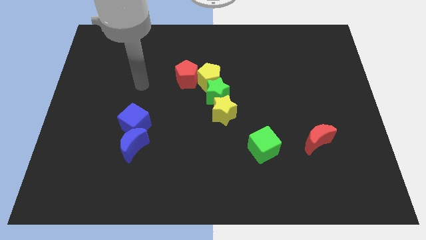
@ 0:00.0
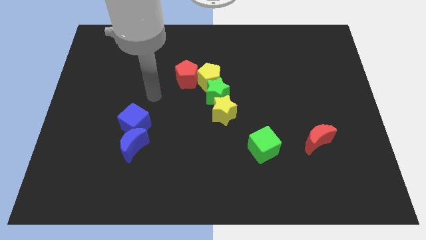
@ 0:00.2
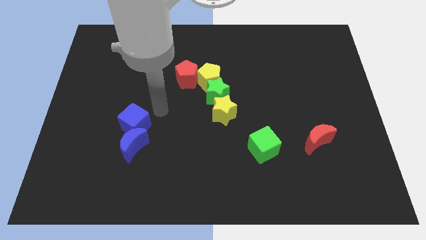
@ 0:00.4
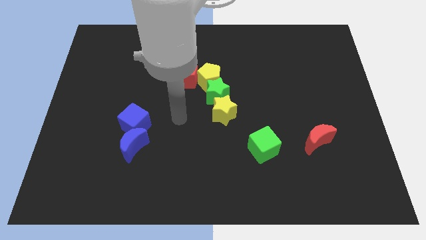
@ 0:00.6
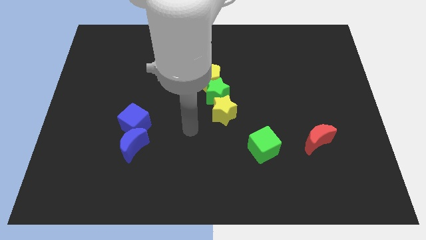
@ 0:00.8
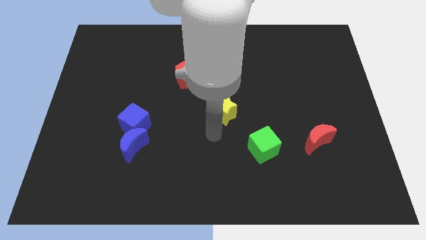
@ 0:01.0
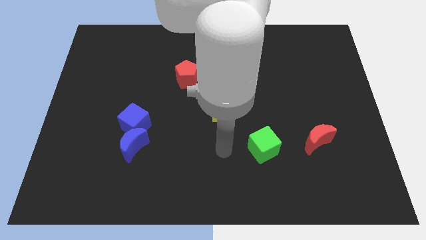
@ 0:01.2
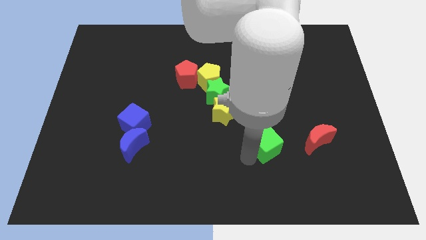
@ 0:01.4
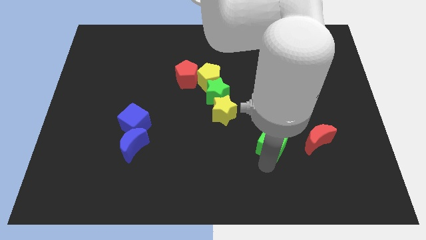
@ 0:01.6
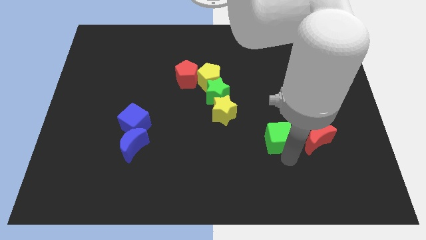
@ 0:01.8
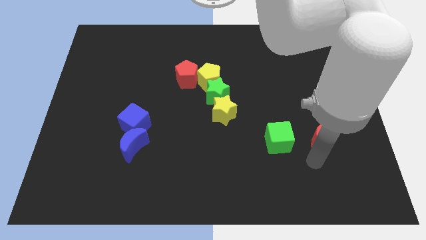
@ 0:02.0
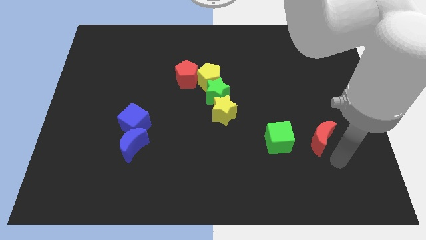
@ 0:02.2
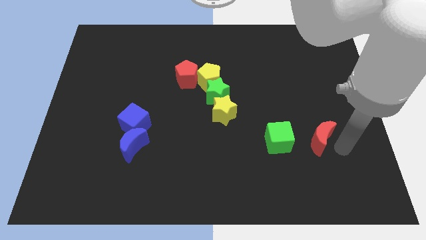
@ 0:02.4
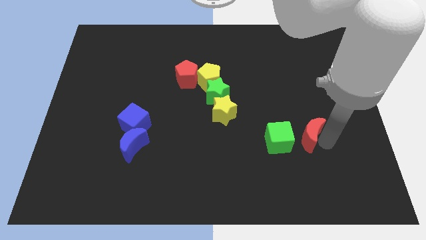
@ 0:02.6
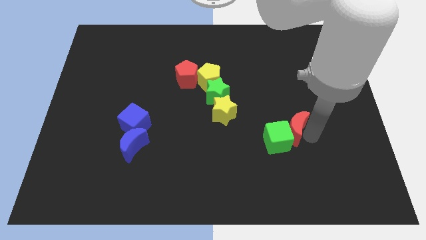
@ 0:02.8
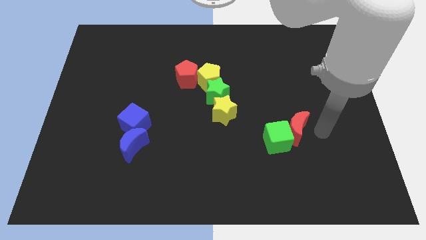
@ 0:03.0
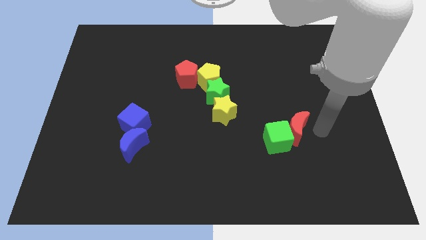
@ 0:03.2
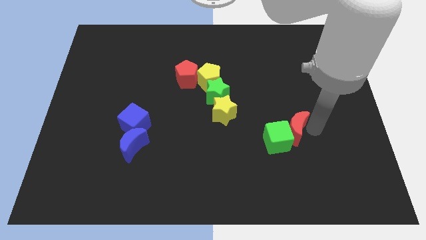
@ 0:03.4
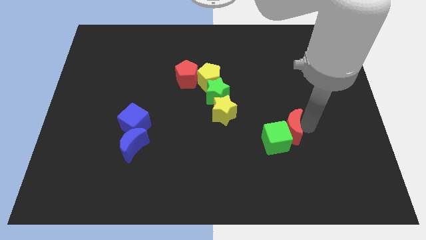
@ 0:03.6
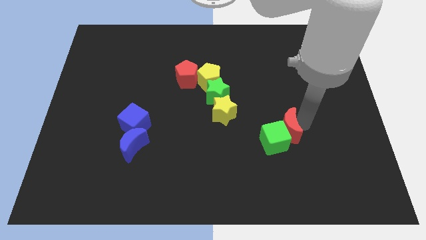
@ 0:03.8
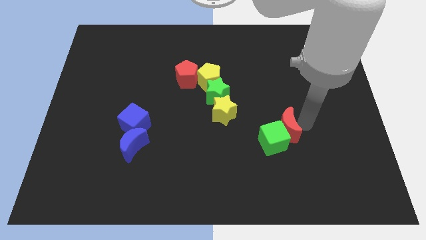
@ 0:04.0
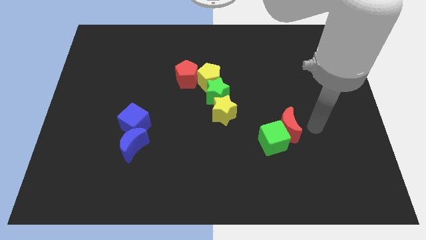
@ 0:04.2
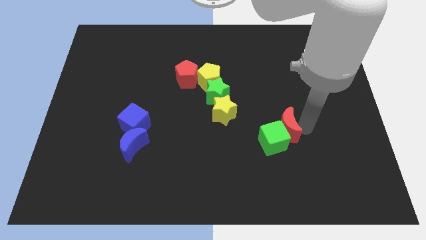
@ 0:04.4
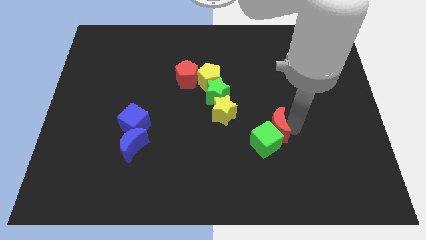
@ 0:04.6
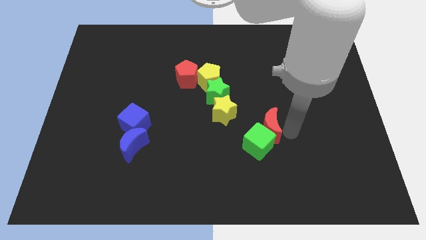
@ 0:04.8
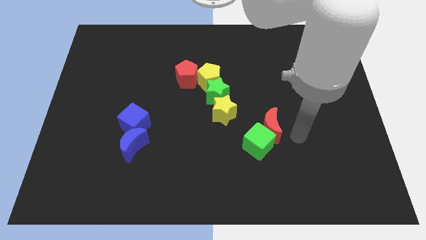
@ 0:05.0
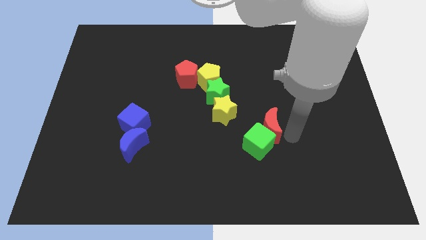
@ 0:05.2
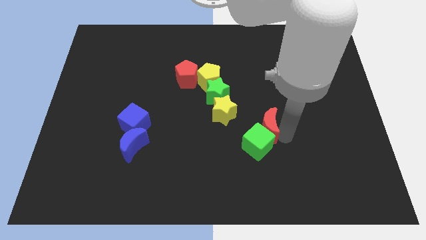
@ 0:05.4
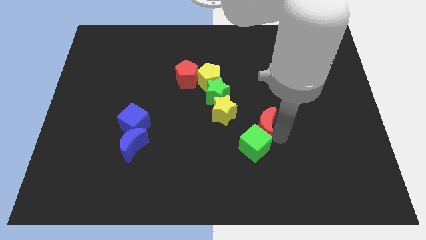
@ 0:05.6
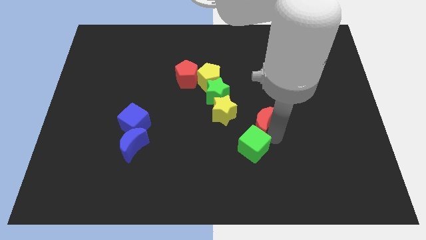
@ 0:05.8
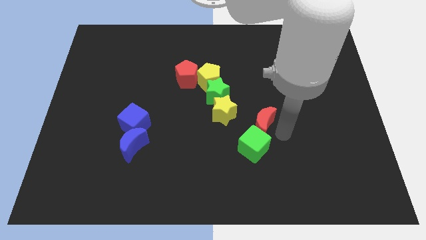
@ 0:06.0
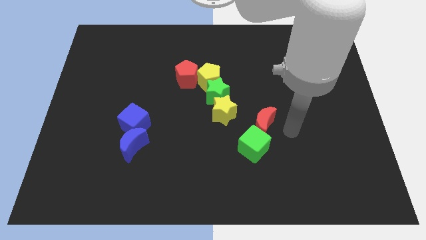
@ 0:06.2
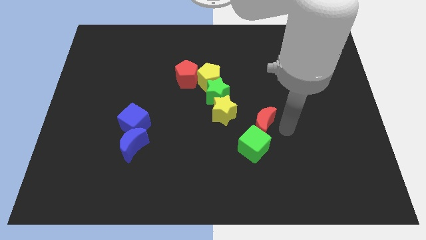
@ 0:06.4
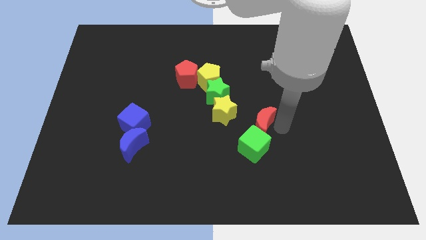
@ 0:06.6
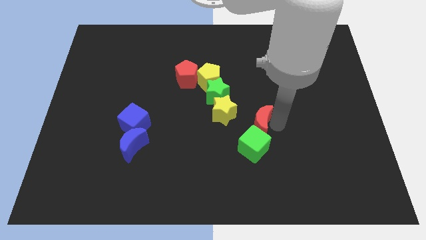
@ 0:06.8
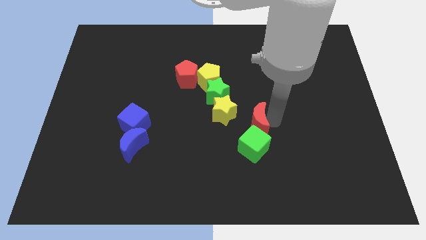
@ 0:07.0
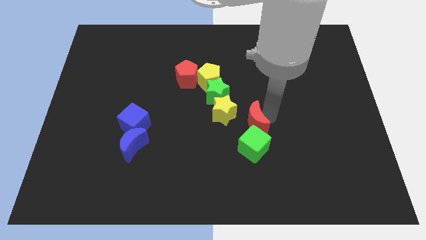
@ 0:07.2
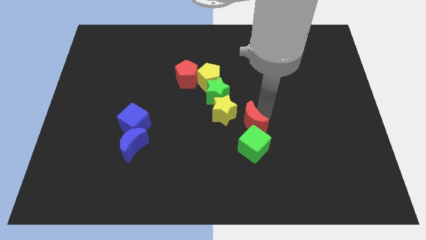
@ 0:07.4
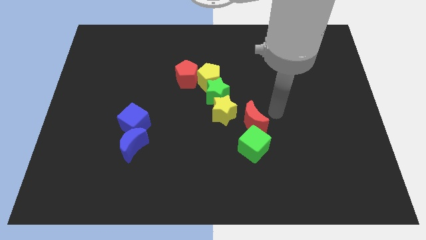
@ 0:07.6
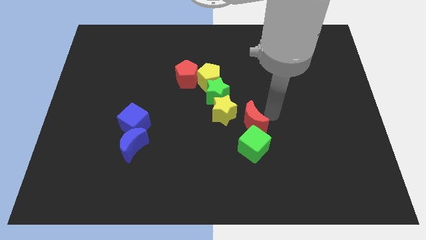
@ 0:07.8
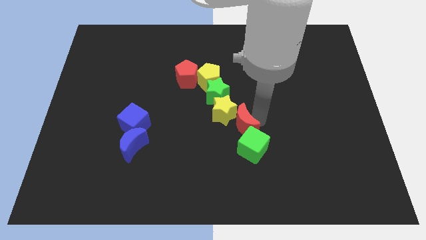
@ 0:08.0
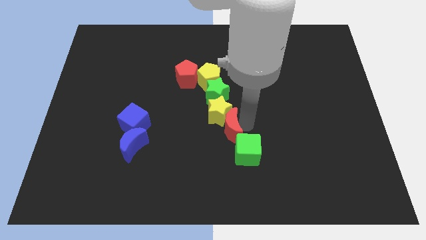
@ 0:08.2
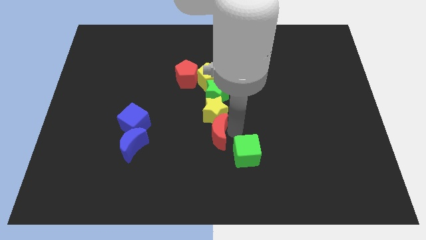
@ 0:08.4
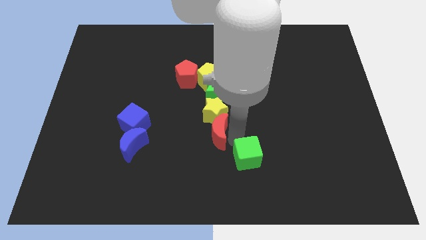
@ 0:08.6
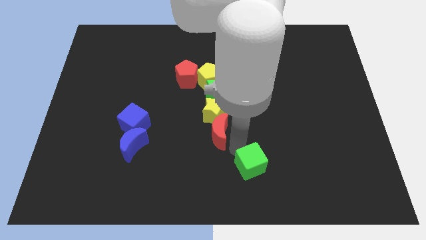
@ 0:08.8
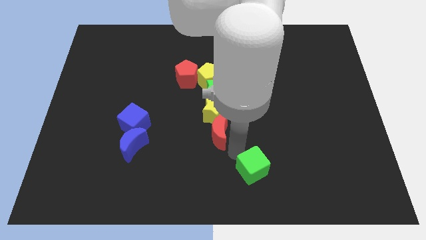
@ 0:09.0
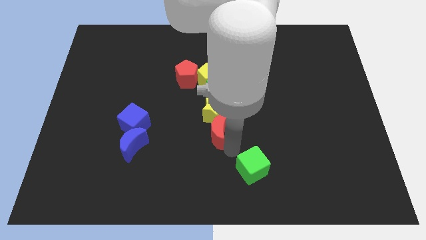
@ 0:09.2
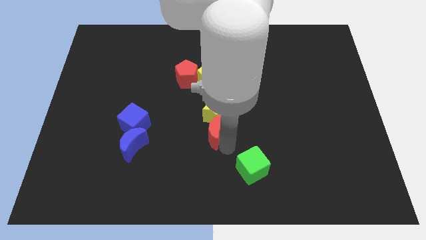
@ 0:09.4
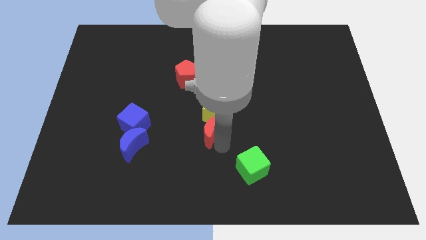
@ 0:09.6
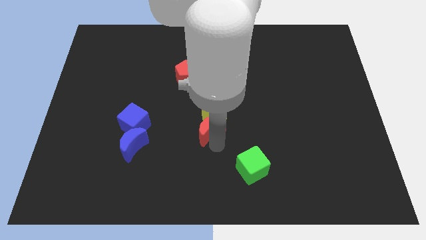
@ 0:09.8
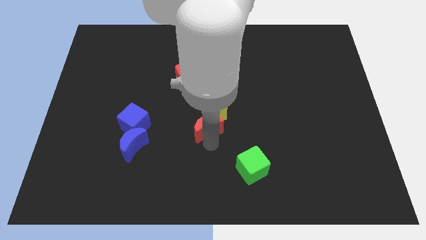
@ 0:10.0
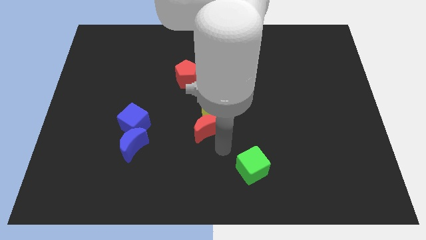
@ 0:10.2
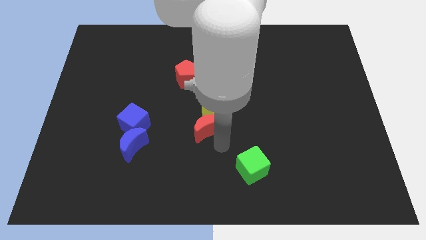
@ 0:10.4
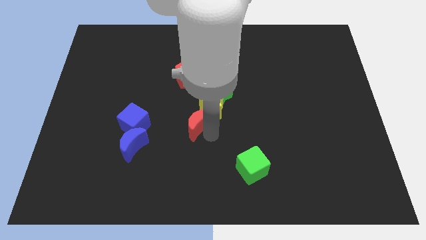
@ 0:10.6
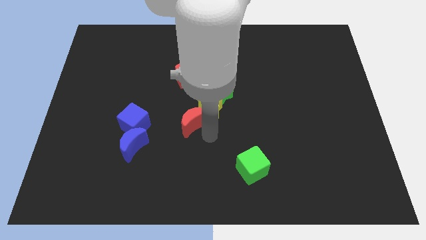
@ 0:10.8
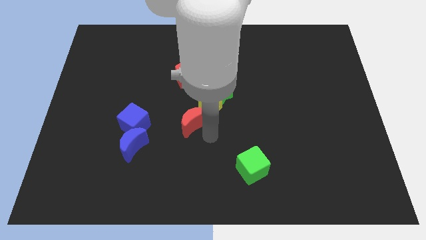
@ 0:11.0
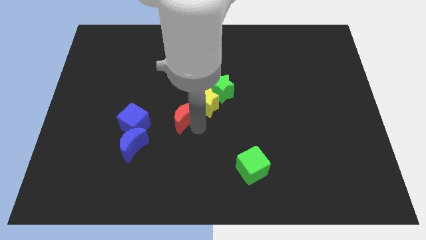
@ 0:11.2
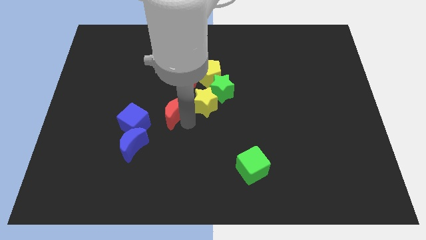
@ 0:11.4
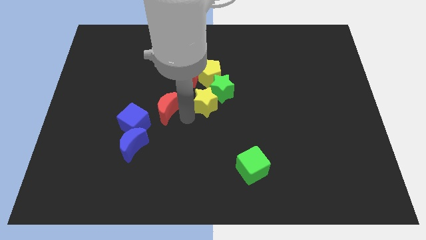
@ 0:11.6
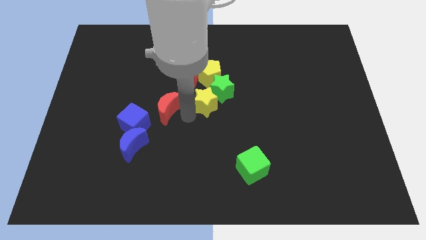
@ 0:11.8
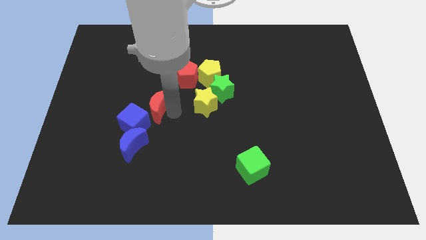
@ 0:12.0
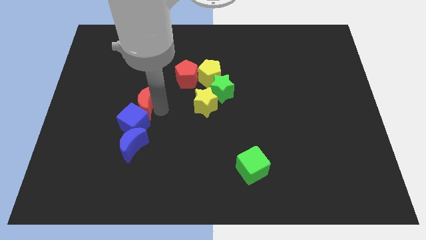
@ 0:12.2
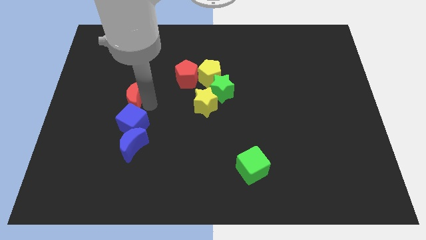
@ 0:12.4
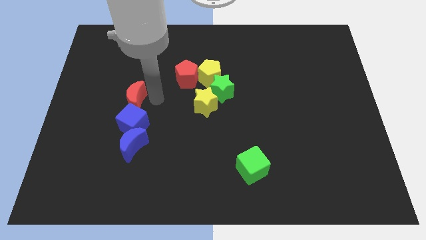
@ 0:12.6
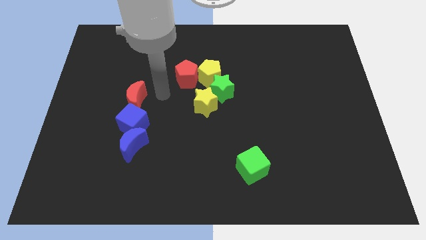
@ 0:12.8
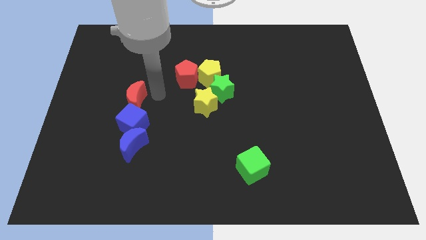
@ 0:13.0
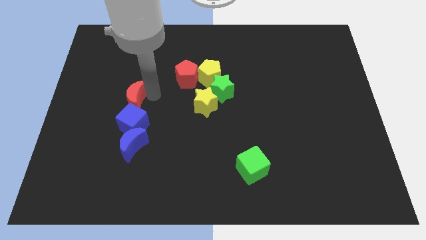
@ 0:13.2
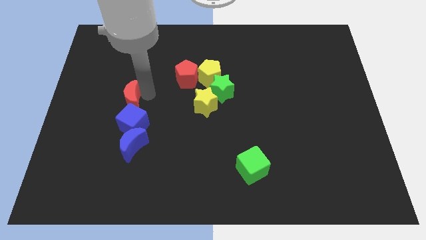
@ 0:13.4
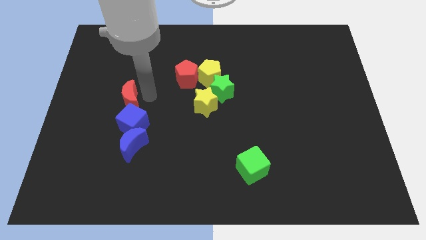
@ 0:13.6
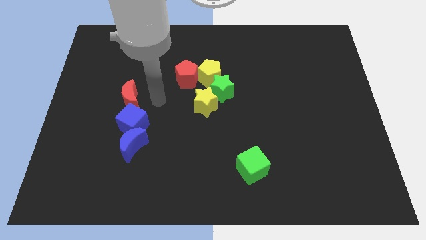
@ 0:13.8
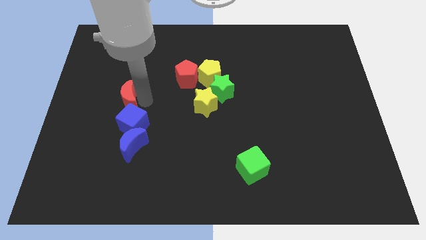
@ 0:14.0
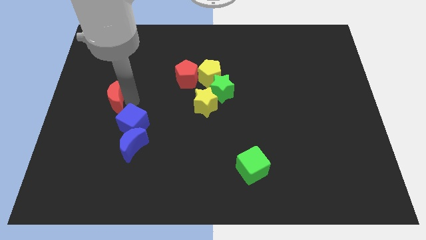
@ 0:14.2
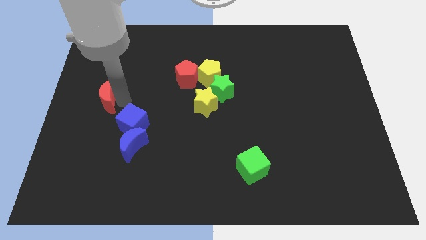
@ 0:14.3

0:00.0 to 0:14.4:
push the red moon to the left side
